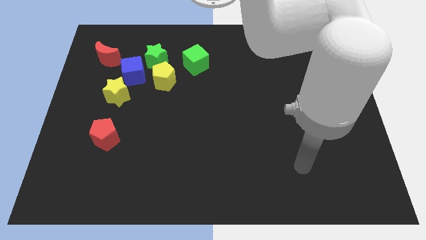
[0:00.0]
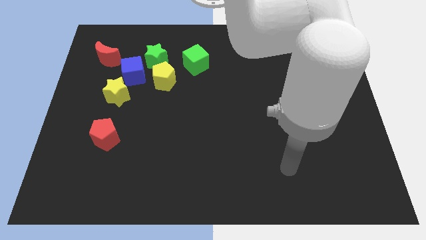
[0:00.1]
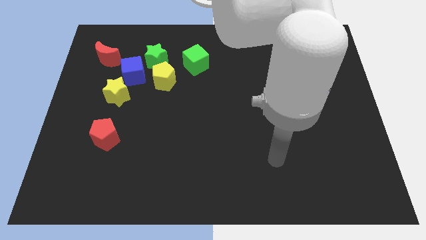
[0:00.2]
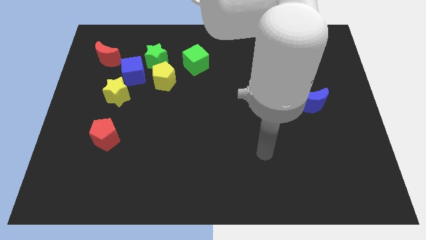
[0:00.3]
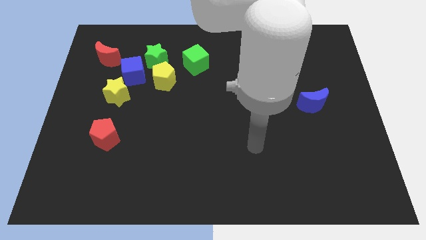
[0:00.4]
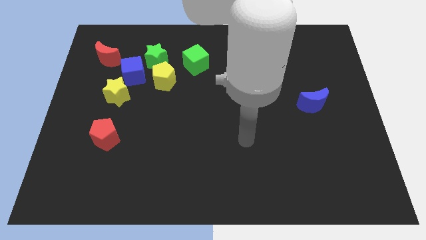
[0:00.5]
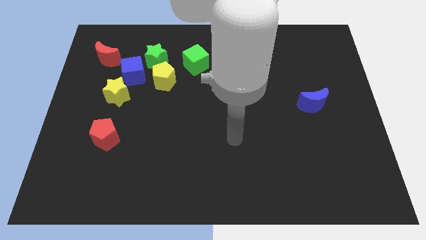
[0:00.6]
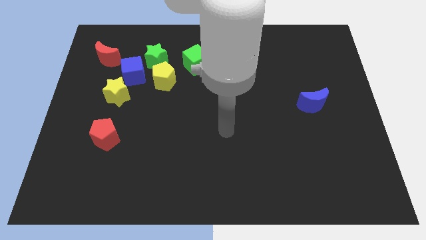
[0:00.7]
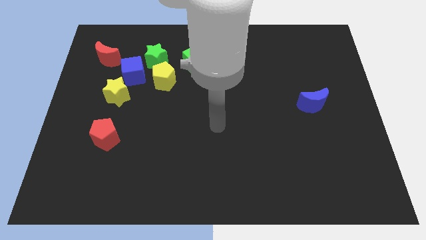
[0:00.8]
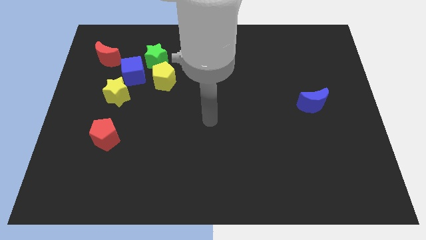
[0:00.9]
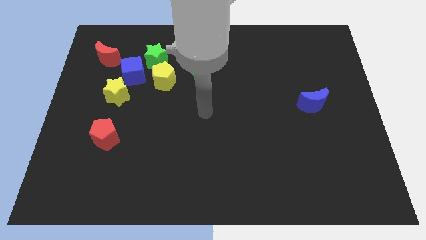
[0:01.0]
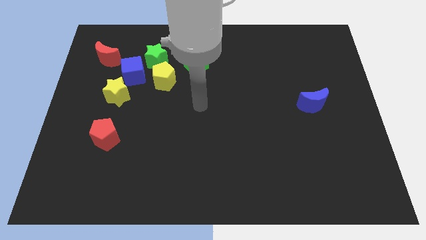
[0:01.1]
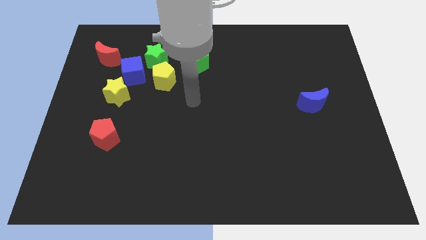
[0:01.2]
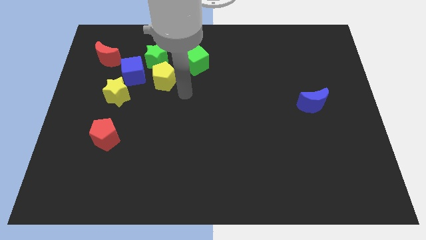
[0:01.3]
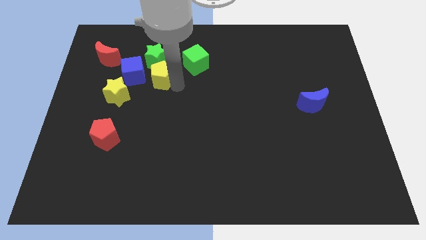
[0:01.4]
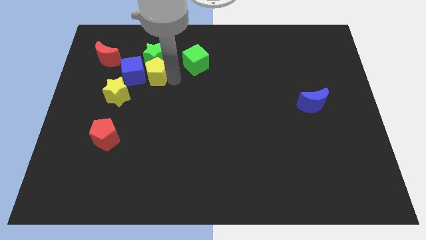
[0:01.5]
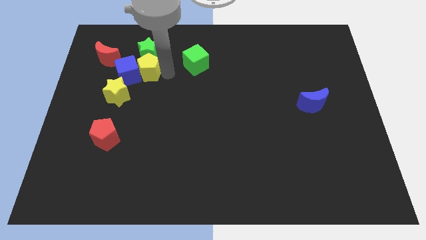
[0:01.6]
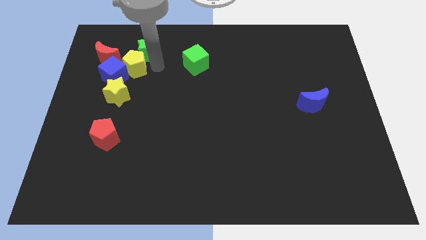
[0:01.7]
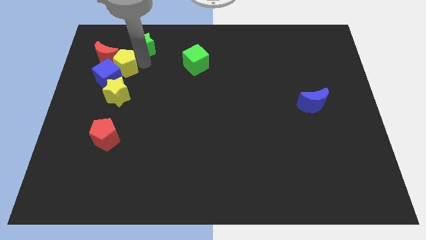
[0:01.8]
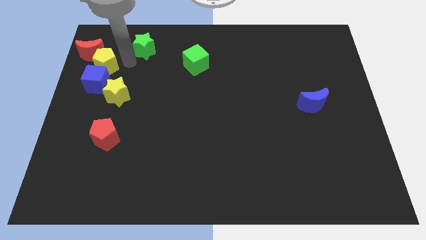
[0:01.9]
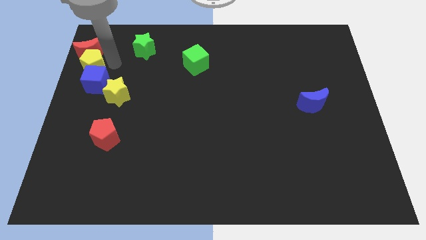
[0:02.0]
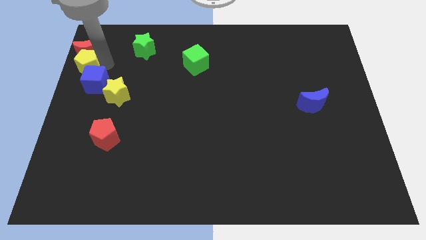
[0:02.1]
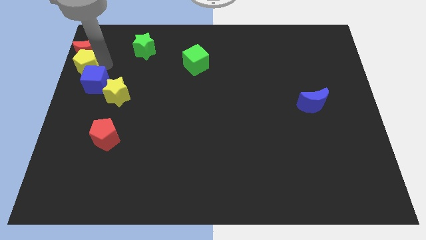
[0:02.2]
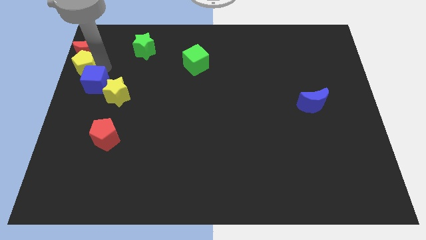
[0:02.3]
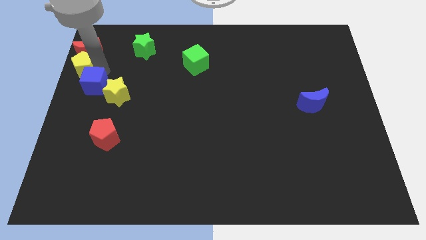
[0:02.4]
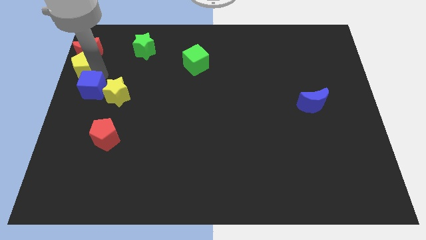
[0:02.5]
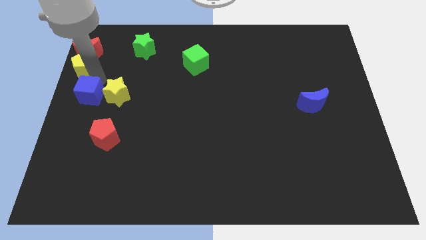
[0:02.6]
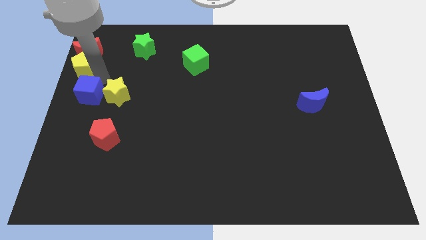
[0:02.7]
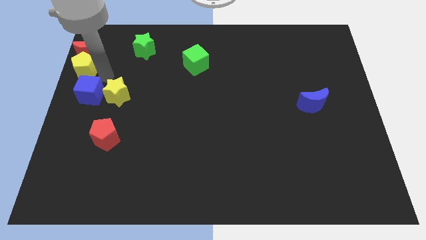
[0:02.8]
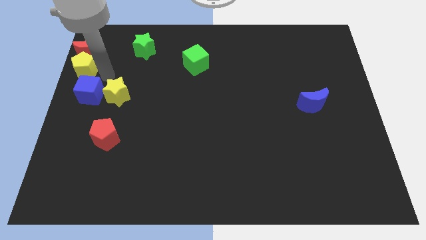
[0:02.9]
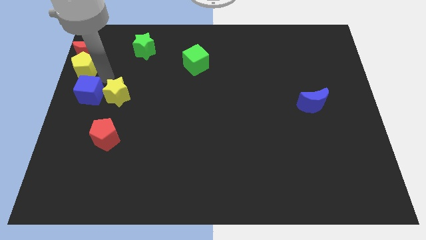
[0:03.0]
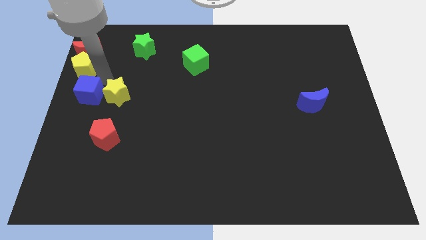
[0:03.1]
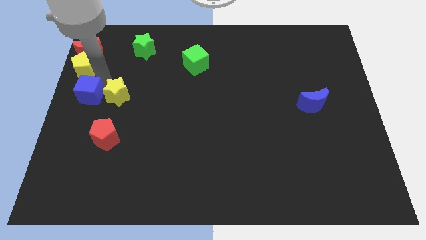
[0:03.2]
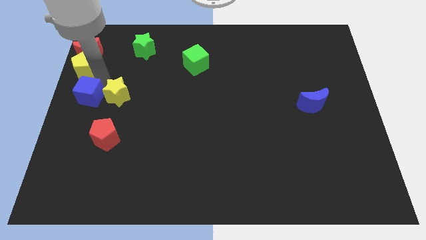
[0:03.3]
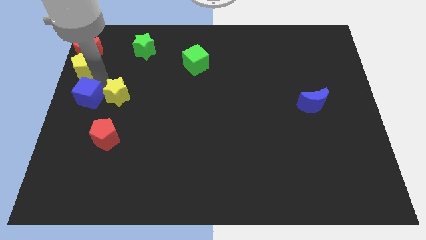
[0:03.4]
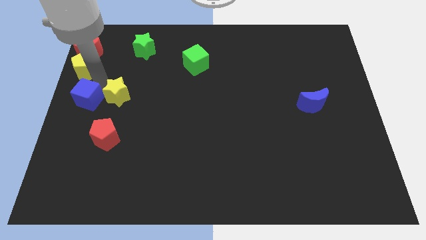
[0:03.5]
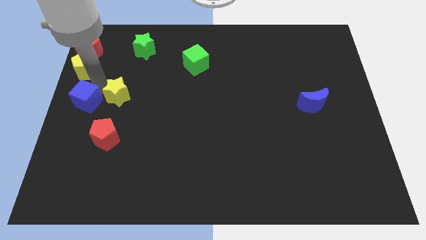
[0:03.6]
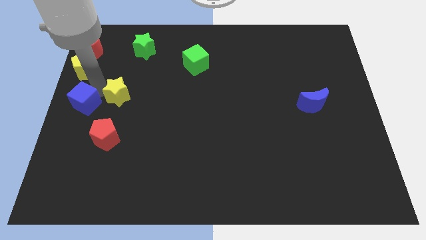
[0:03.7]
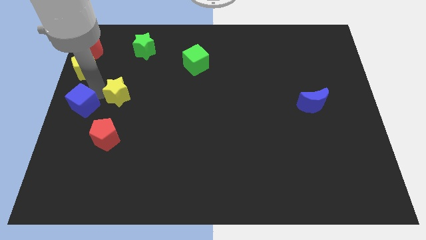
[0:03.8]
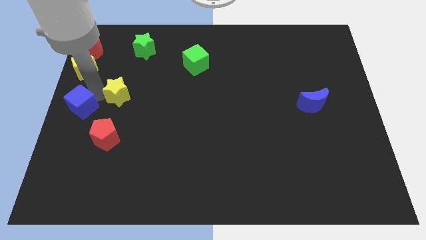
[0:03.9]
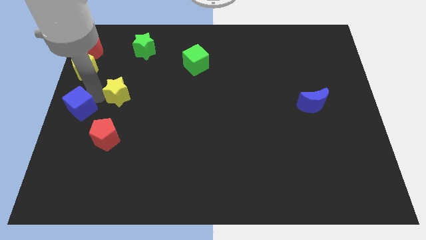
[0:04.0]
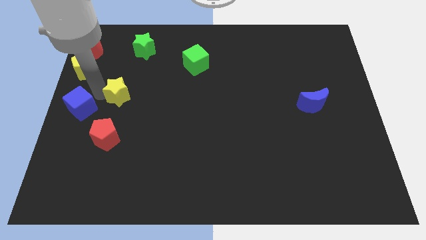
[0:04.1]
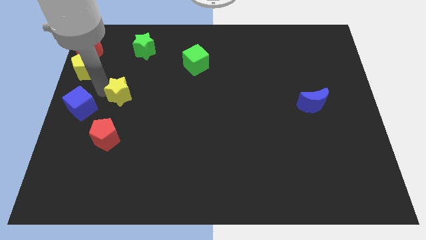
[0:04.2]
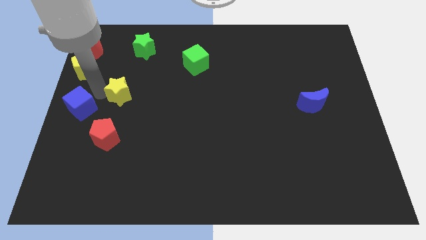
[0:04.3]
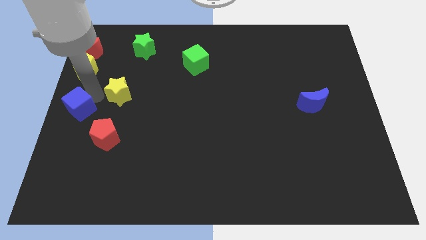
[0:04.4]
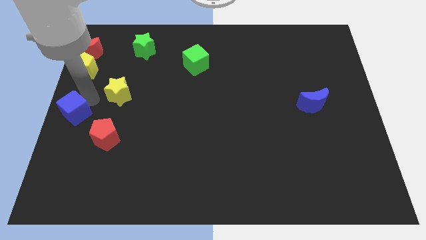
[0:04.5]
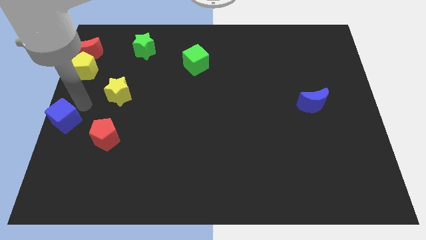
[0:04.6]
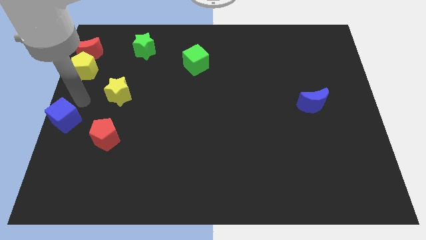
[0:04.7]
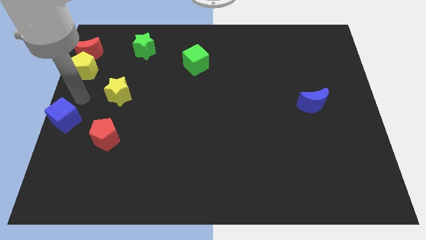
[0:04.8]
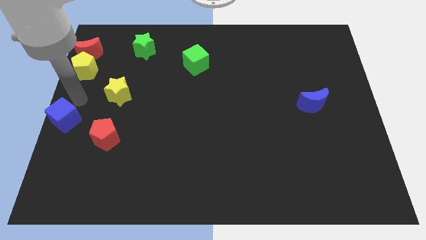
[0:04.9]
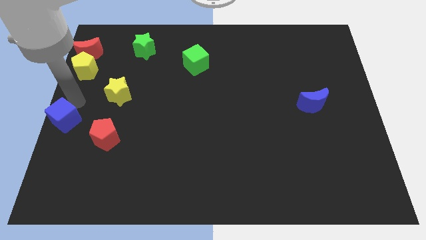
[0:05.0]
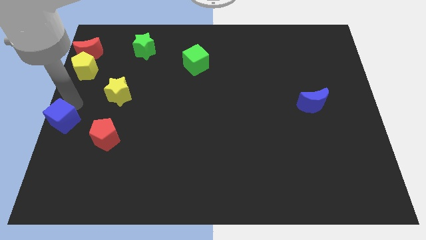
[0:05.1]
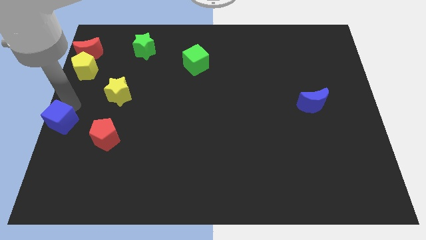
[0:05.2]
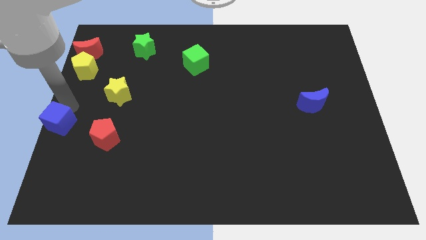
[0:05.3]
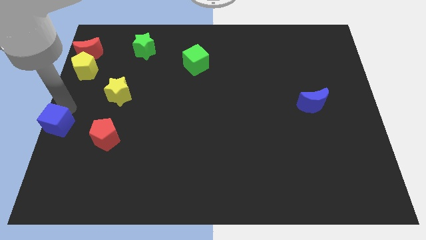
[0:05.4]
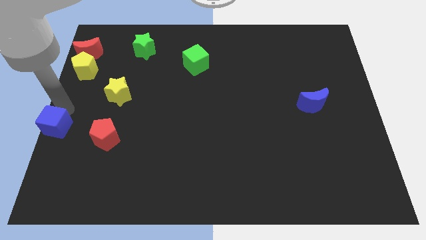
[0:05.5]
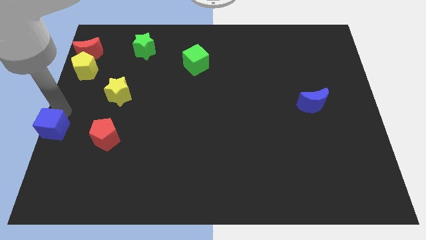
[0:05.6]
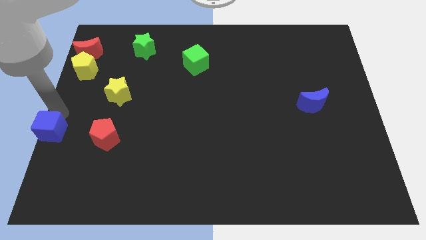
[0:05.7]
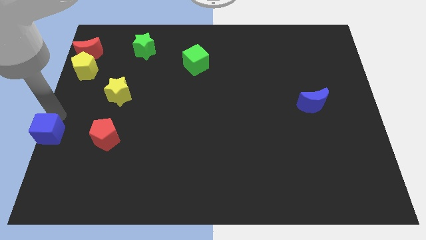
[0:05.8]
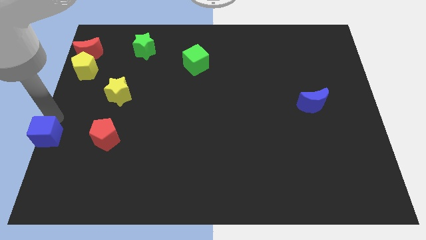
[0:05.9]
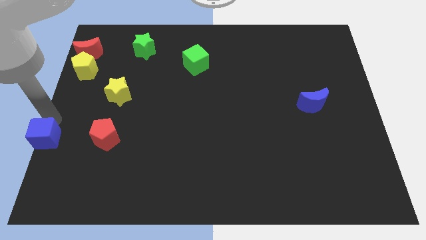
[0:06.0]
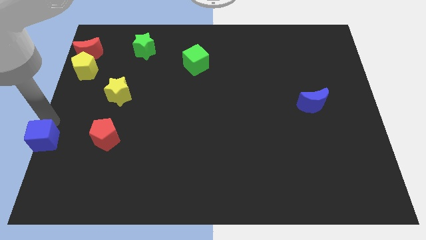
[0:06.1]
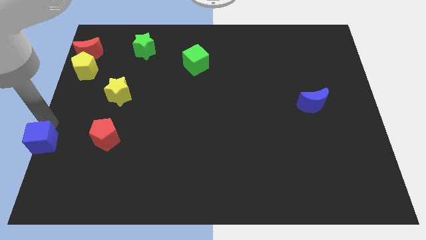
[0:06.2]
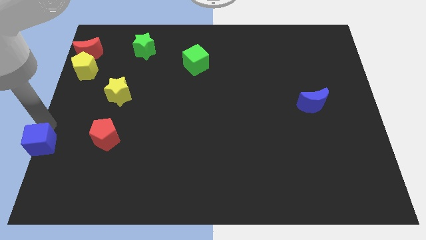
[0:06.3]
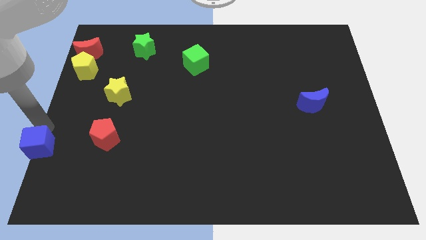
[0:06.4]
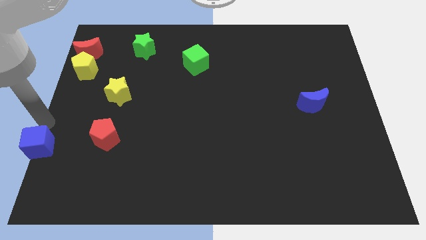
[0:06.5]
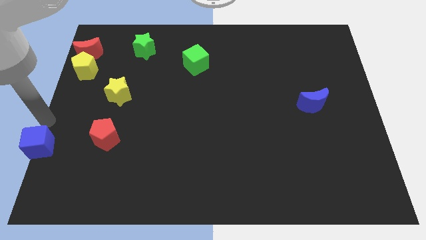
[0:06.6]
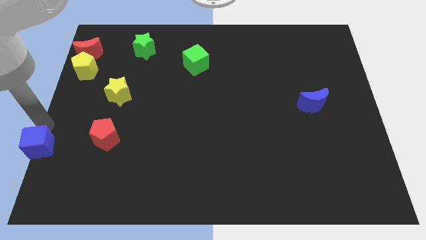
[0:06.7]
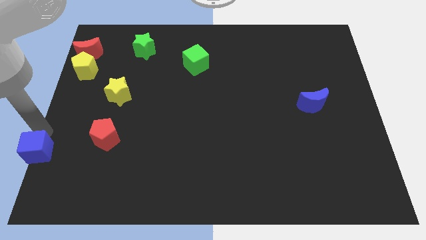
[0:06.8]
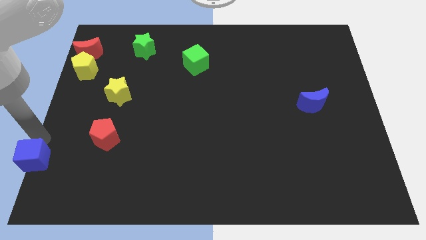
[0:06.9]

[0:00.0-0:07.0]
push the blue cube to the bottom left

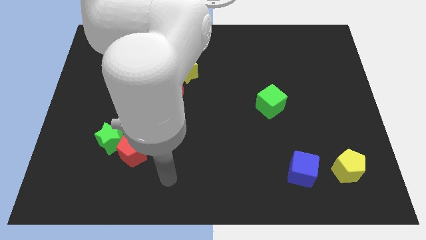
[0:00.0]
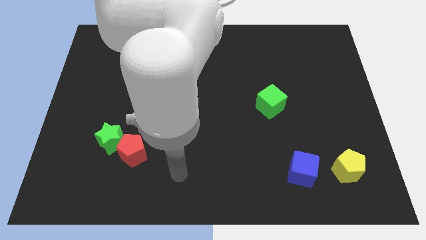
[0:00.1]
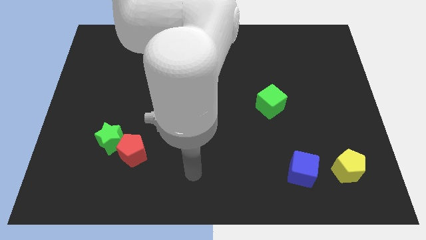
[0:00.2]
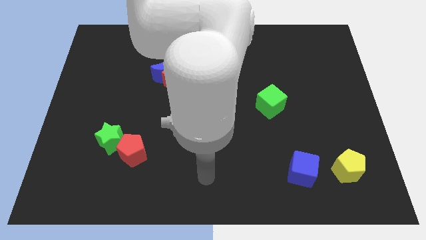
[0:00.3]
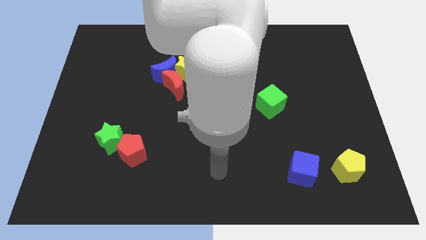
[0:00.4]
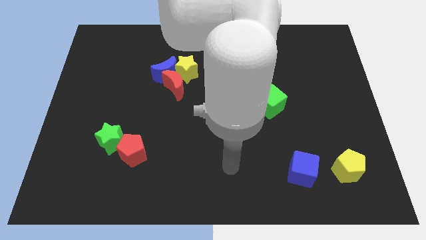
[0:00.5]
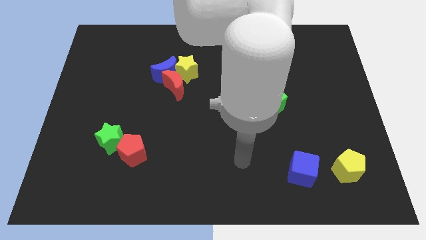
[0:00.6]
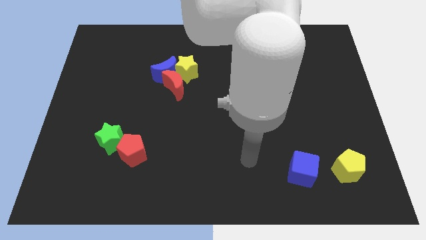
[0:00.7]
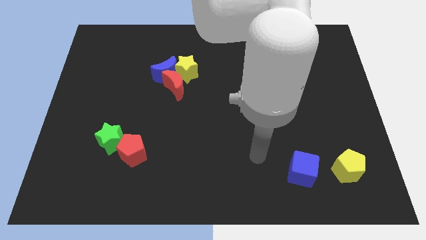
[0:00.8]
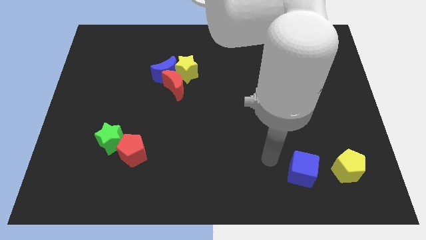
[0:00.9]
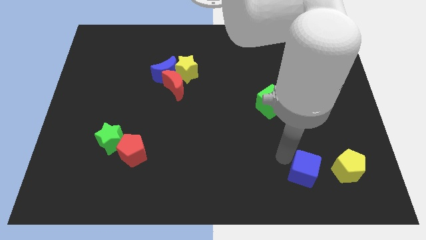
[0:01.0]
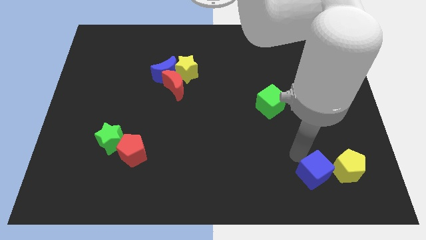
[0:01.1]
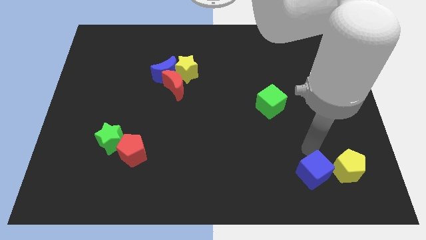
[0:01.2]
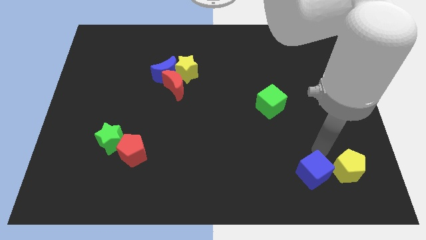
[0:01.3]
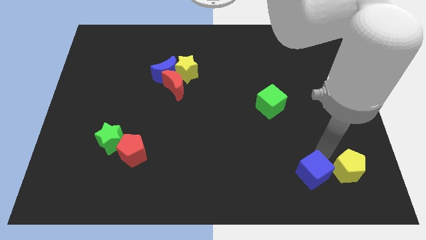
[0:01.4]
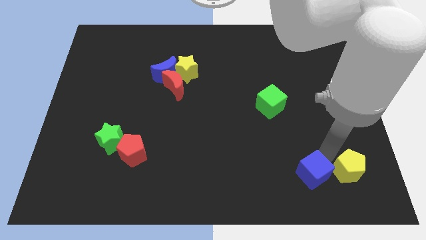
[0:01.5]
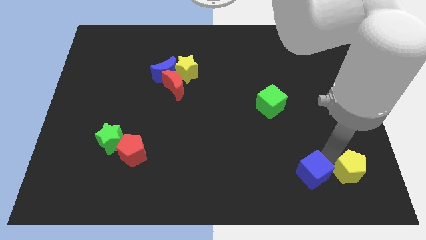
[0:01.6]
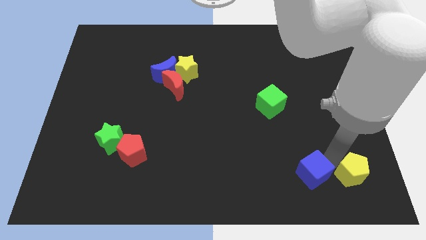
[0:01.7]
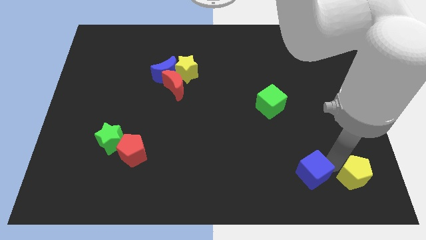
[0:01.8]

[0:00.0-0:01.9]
push the yellow pentagon to the bottom right corner
